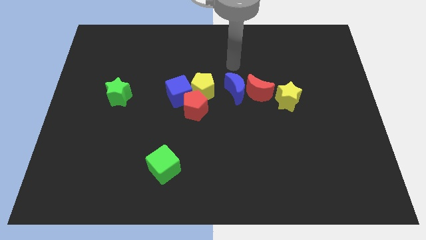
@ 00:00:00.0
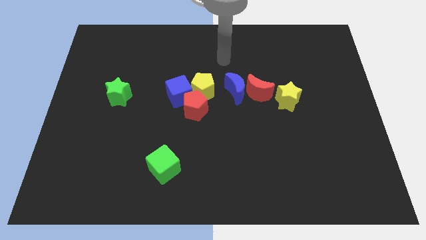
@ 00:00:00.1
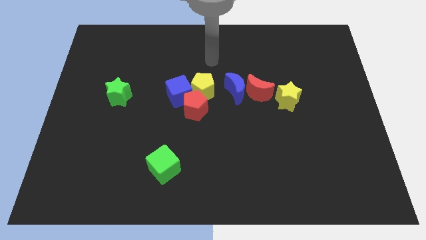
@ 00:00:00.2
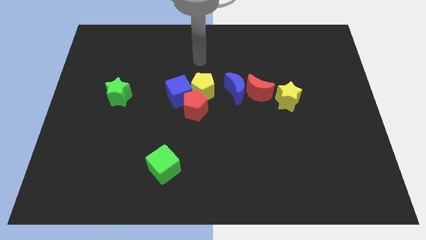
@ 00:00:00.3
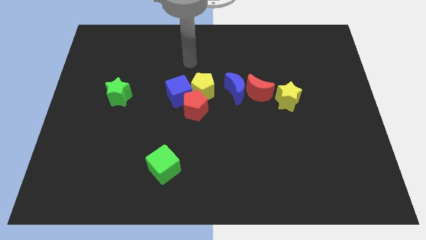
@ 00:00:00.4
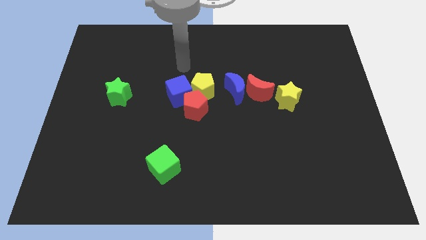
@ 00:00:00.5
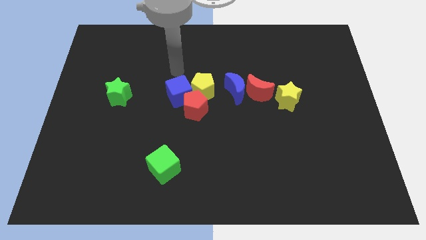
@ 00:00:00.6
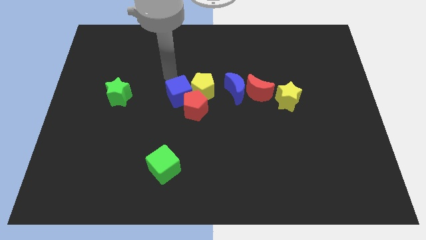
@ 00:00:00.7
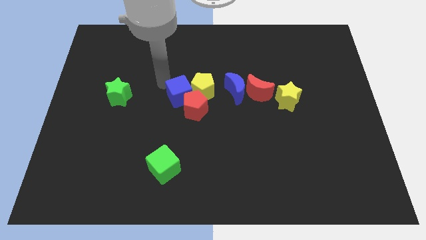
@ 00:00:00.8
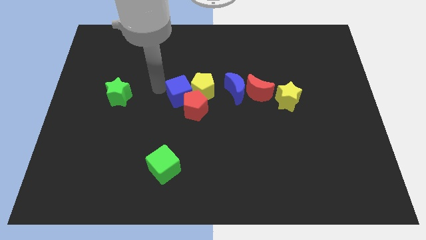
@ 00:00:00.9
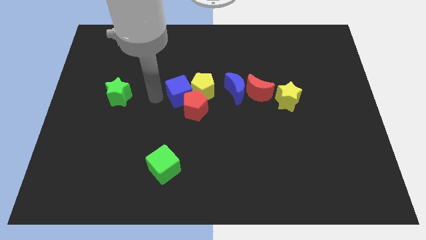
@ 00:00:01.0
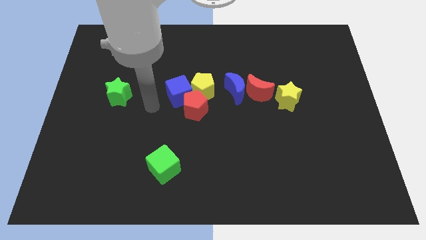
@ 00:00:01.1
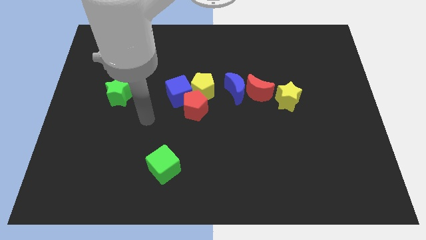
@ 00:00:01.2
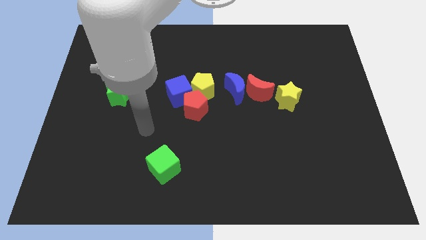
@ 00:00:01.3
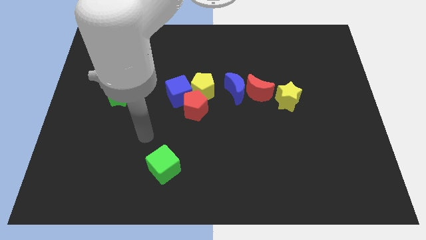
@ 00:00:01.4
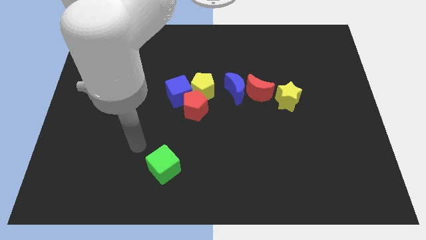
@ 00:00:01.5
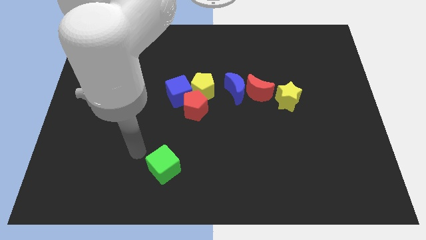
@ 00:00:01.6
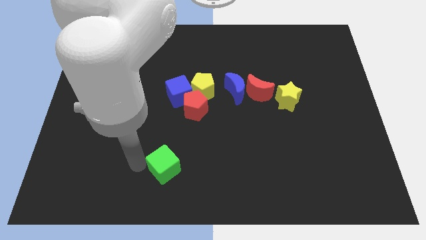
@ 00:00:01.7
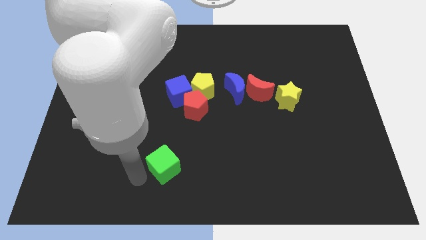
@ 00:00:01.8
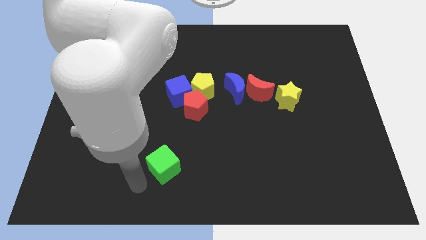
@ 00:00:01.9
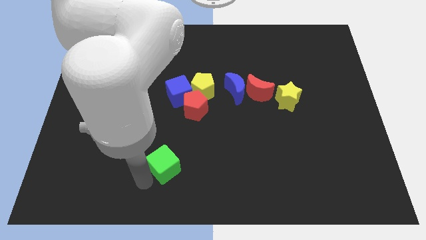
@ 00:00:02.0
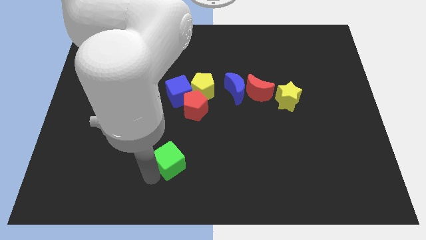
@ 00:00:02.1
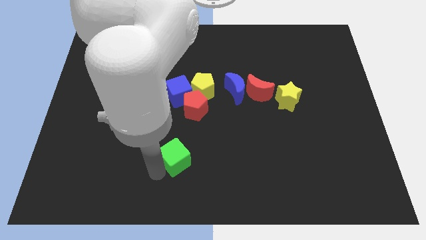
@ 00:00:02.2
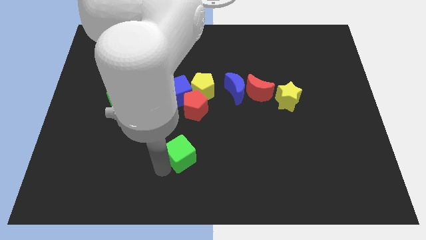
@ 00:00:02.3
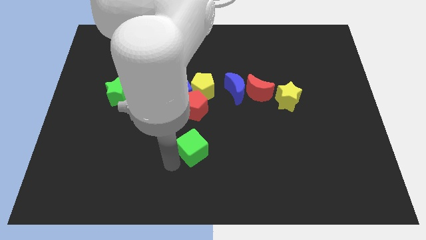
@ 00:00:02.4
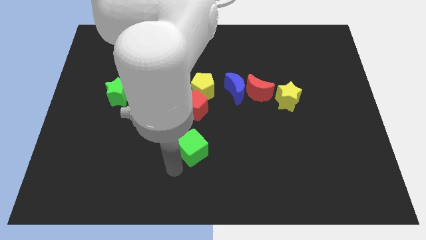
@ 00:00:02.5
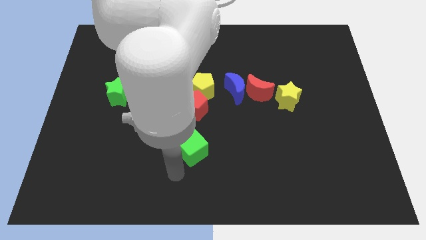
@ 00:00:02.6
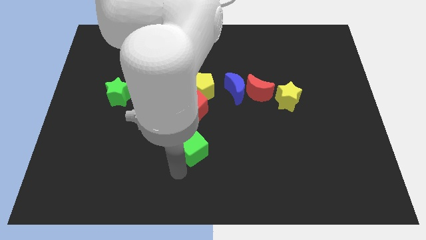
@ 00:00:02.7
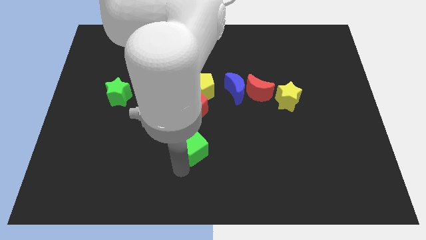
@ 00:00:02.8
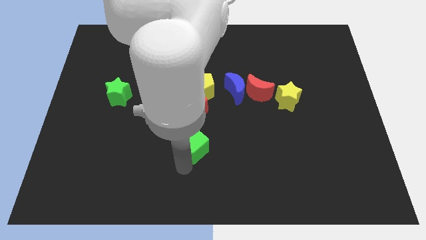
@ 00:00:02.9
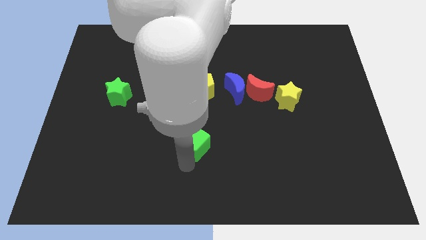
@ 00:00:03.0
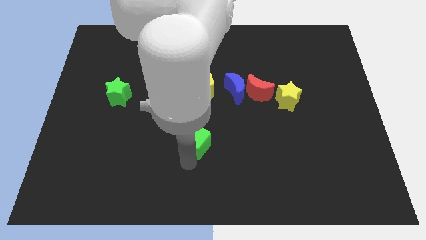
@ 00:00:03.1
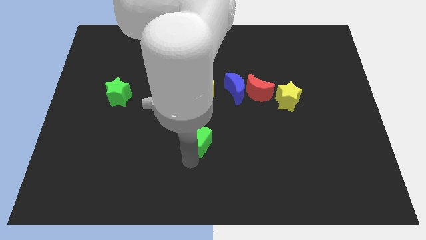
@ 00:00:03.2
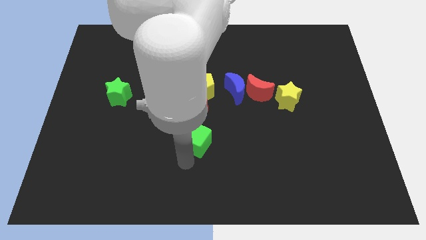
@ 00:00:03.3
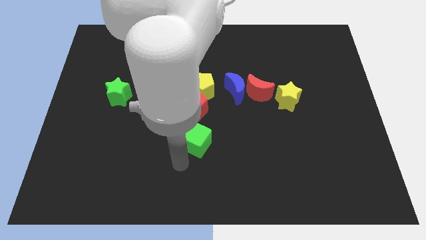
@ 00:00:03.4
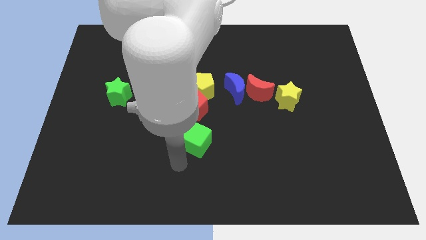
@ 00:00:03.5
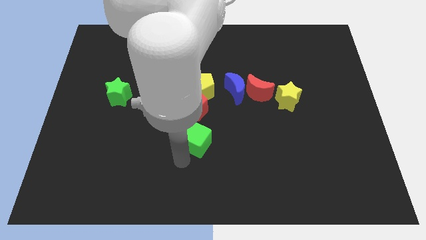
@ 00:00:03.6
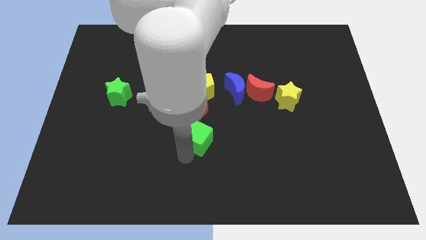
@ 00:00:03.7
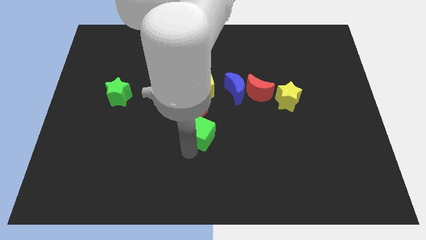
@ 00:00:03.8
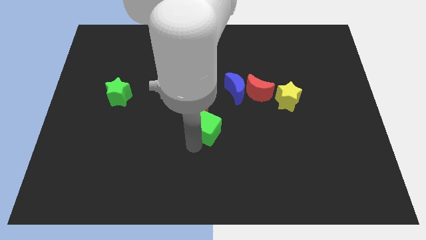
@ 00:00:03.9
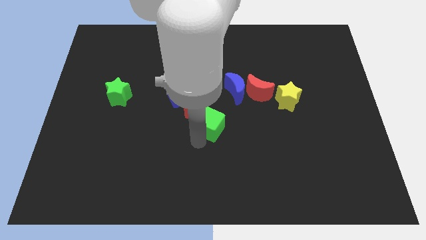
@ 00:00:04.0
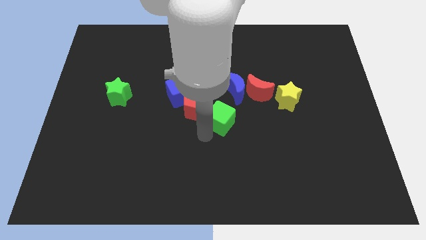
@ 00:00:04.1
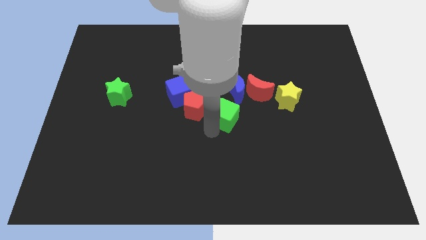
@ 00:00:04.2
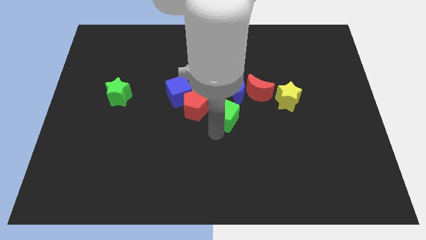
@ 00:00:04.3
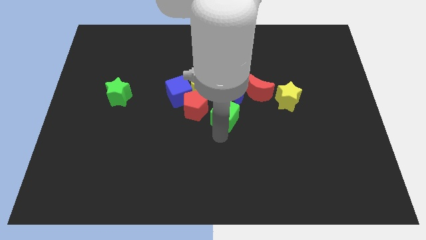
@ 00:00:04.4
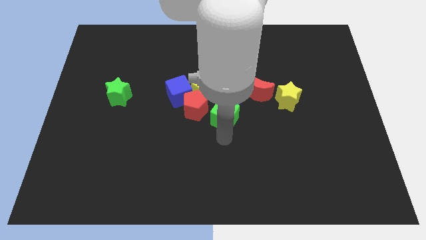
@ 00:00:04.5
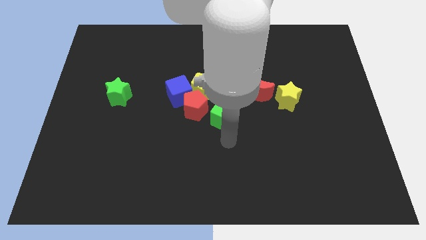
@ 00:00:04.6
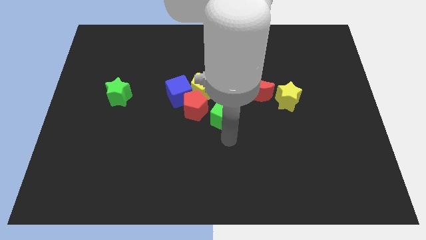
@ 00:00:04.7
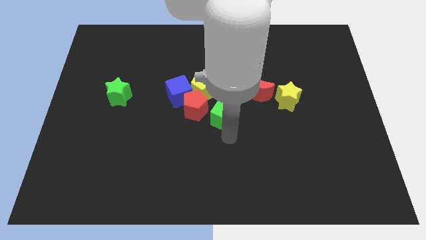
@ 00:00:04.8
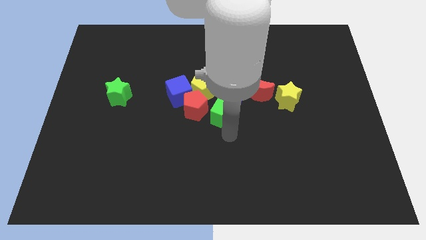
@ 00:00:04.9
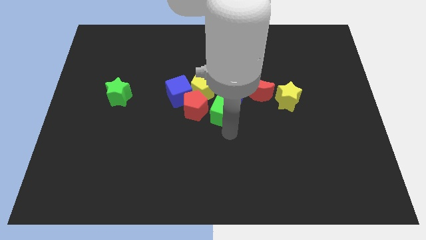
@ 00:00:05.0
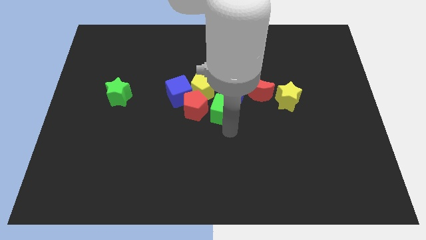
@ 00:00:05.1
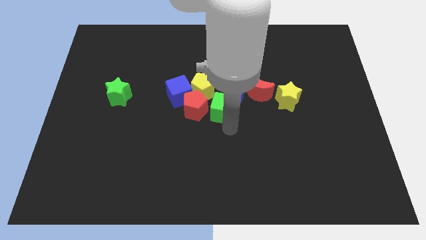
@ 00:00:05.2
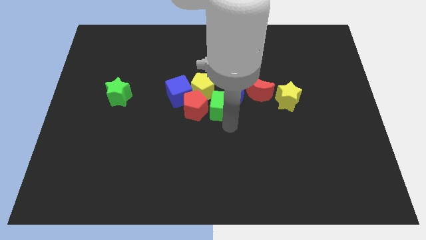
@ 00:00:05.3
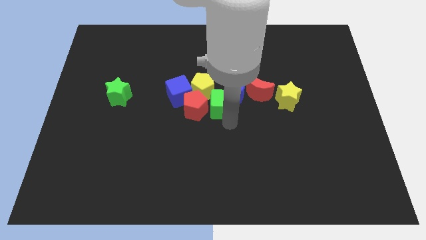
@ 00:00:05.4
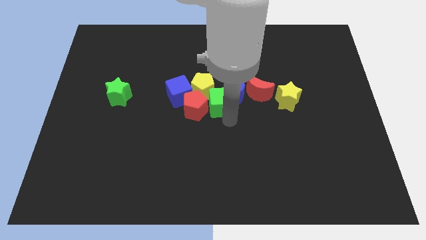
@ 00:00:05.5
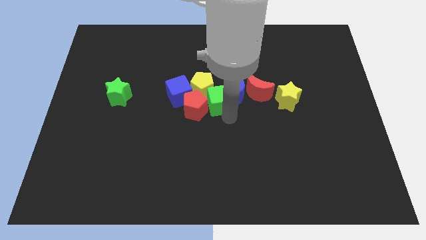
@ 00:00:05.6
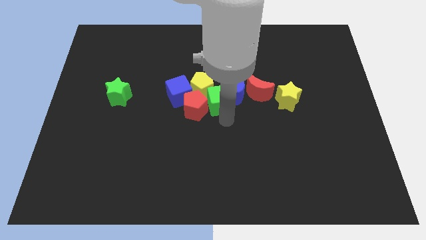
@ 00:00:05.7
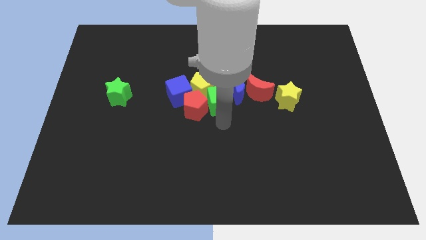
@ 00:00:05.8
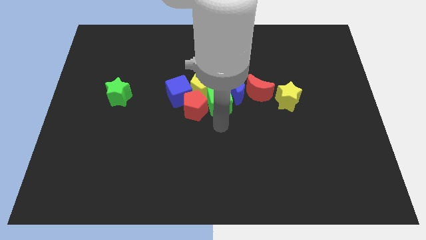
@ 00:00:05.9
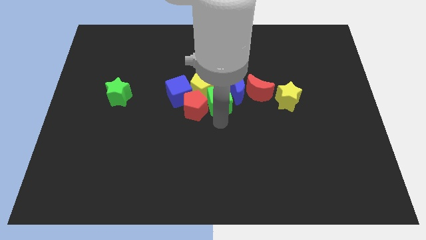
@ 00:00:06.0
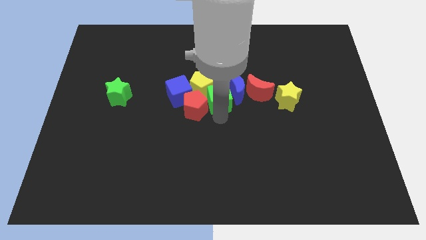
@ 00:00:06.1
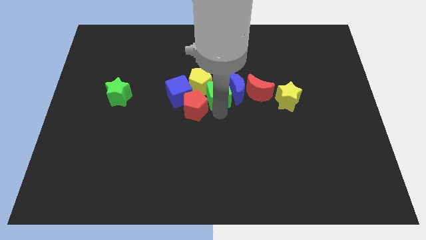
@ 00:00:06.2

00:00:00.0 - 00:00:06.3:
move the green cube diagonally up and to the left of the blue moon

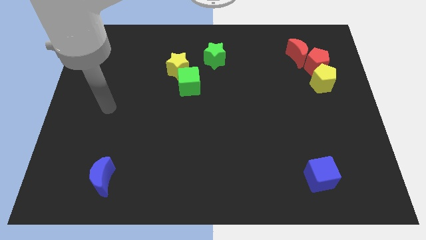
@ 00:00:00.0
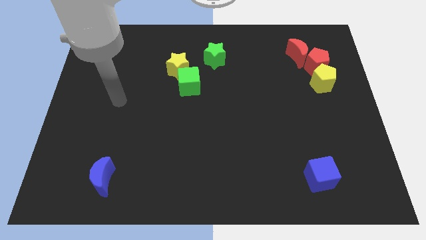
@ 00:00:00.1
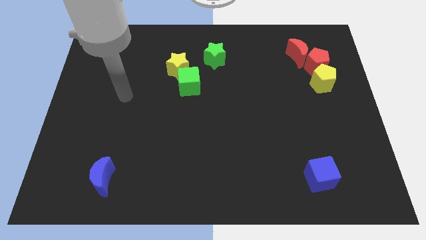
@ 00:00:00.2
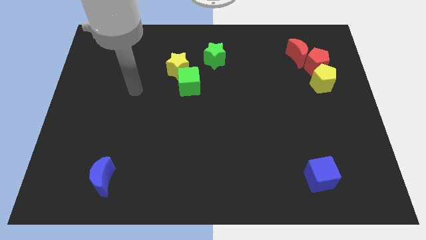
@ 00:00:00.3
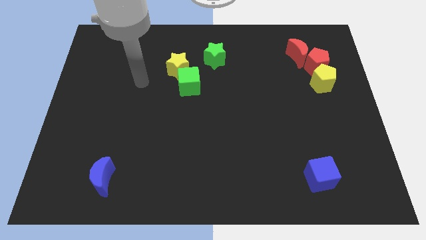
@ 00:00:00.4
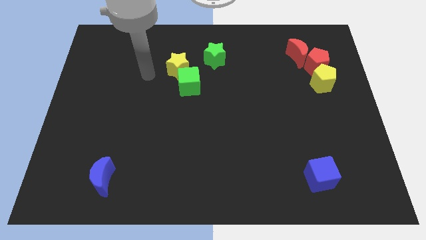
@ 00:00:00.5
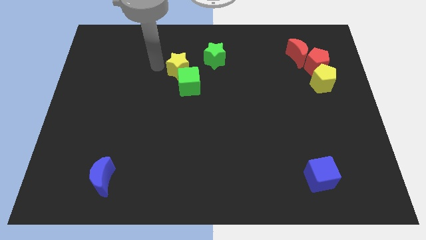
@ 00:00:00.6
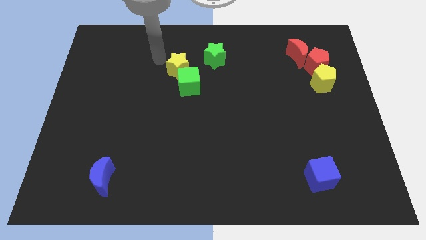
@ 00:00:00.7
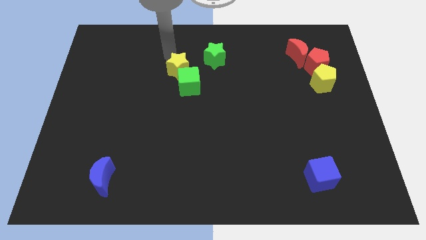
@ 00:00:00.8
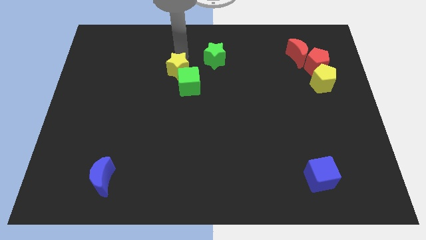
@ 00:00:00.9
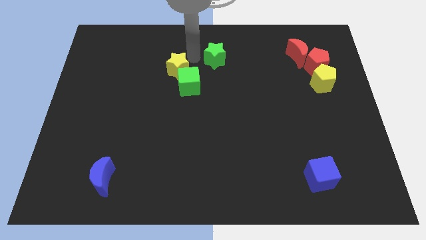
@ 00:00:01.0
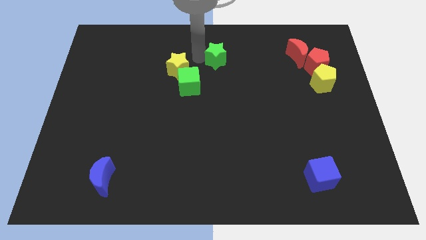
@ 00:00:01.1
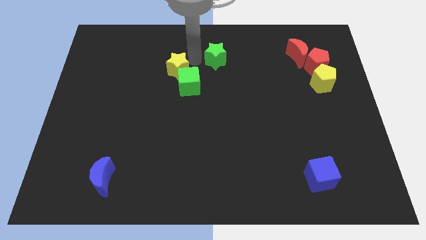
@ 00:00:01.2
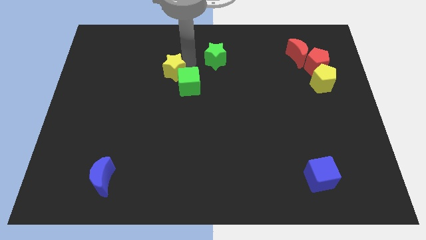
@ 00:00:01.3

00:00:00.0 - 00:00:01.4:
push the yellow star to the left side of the green cube
